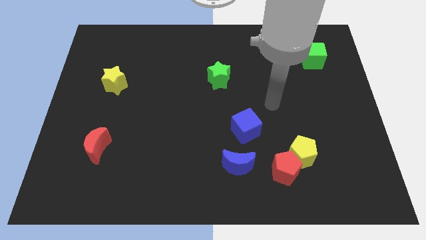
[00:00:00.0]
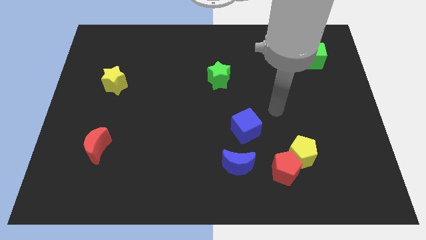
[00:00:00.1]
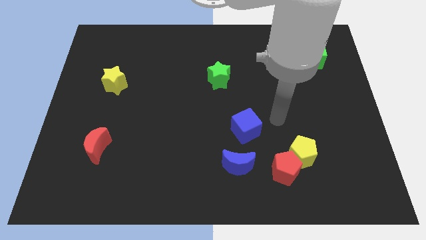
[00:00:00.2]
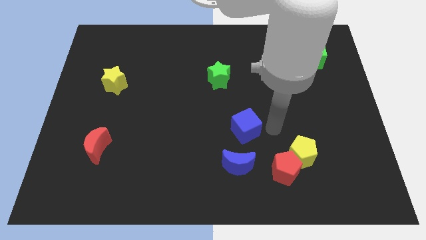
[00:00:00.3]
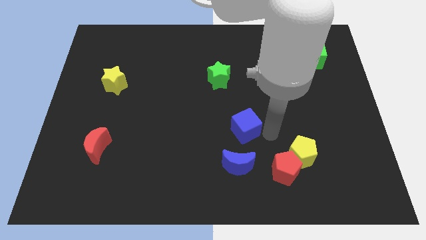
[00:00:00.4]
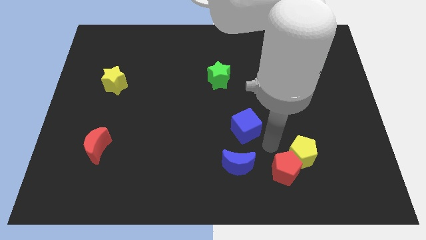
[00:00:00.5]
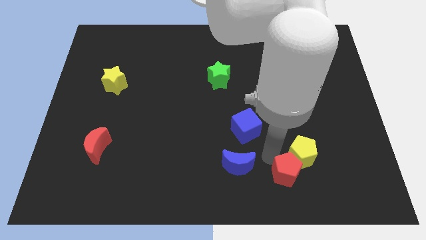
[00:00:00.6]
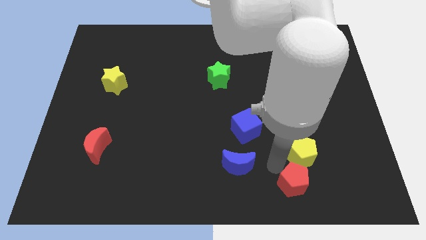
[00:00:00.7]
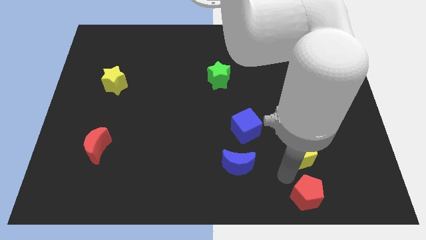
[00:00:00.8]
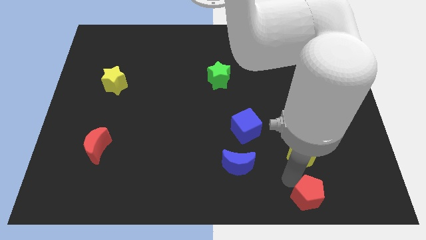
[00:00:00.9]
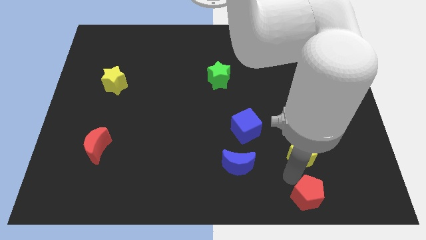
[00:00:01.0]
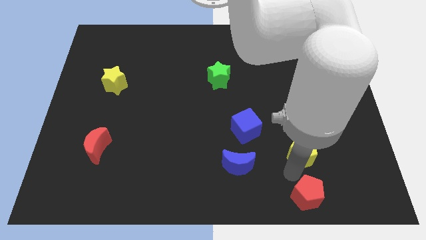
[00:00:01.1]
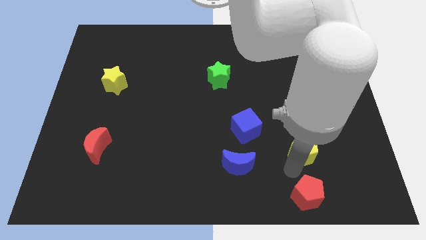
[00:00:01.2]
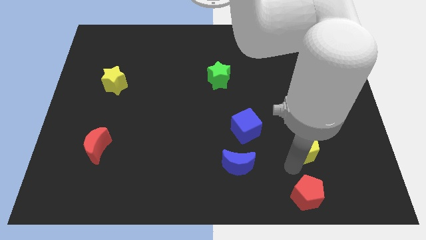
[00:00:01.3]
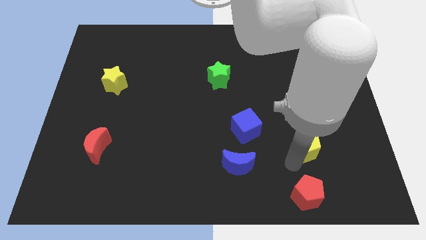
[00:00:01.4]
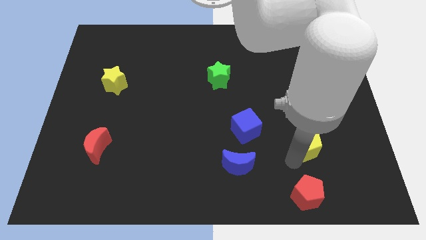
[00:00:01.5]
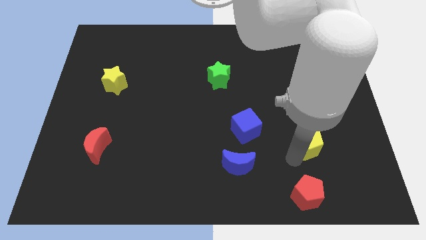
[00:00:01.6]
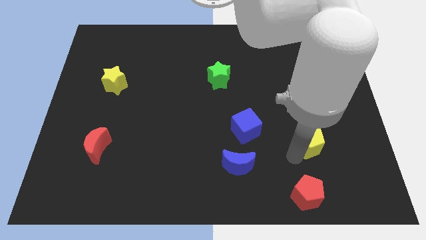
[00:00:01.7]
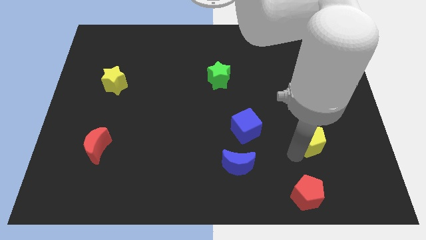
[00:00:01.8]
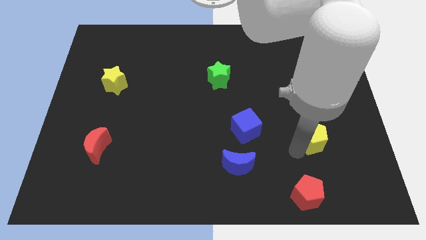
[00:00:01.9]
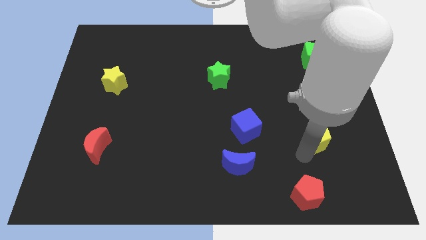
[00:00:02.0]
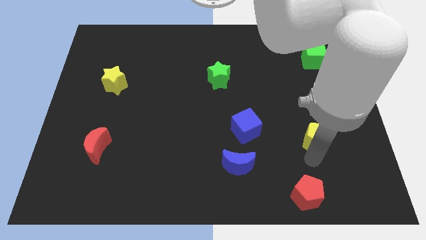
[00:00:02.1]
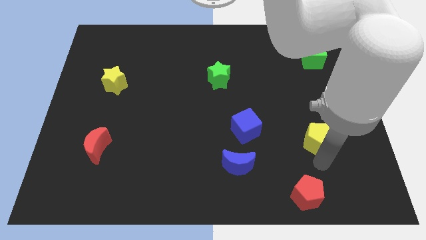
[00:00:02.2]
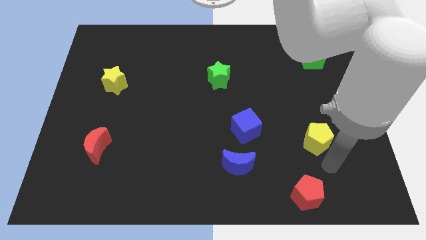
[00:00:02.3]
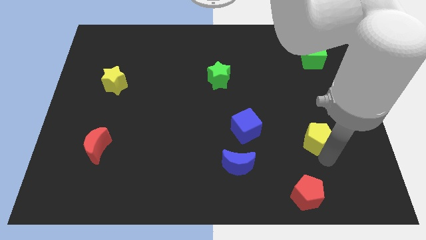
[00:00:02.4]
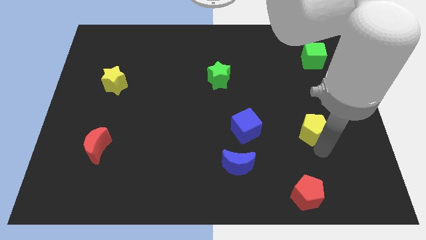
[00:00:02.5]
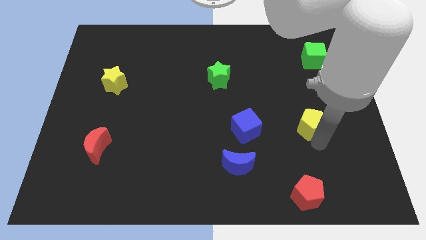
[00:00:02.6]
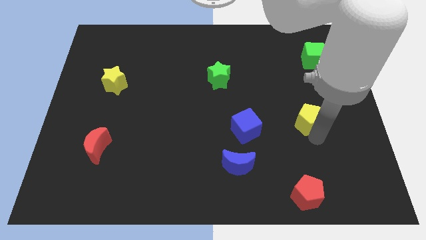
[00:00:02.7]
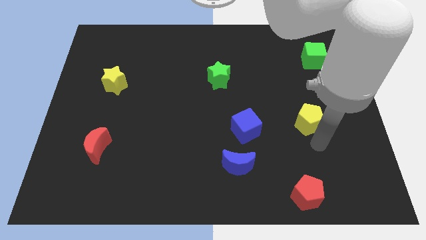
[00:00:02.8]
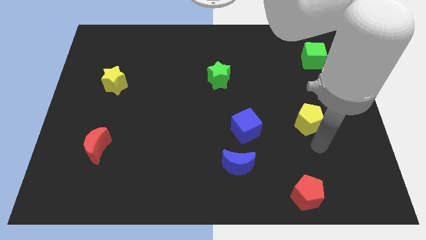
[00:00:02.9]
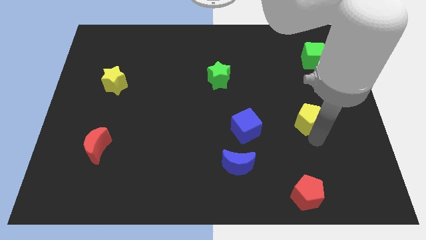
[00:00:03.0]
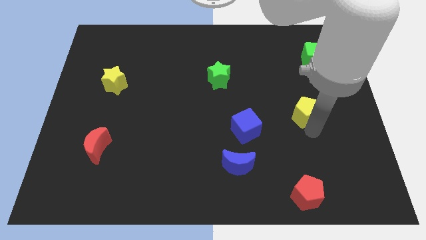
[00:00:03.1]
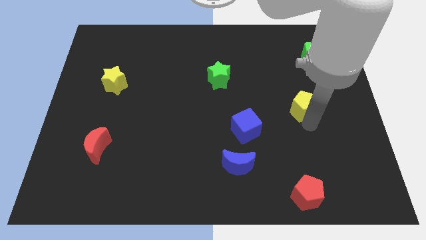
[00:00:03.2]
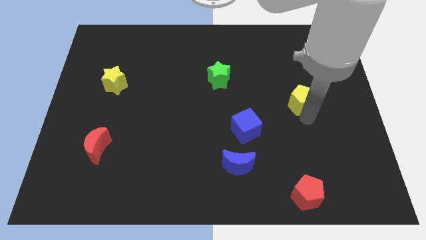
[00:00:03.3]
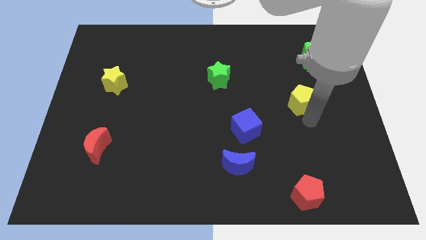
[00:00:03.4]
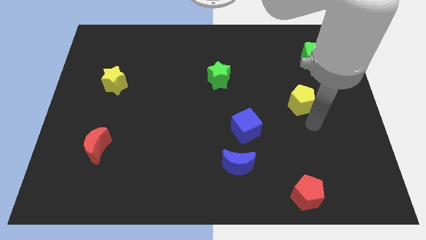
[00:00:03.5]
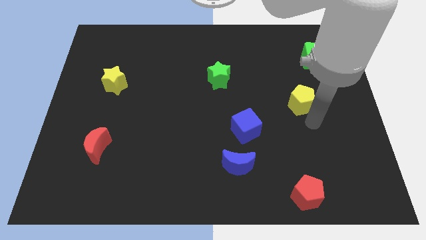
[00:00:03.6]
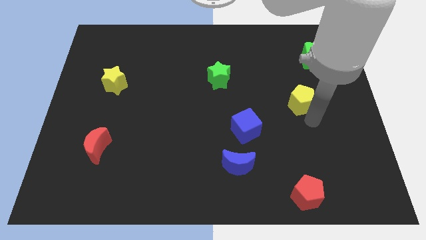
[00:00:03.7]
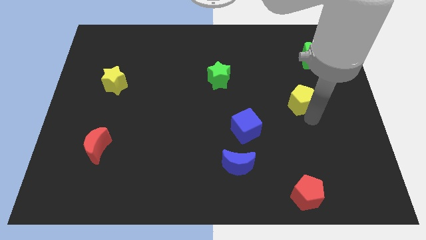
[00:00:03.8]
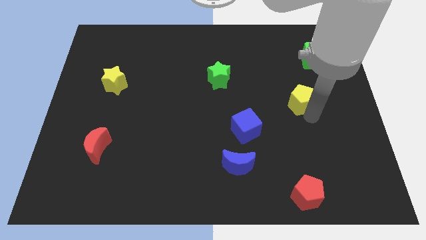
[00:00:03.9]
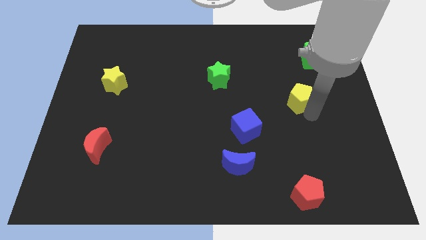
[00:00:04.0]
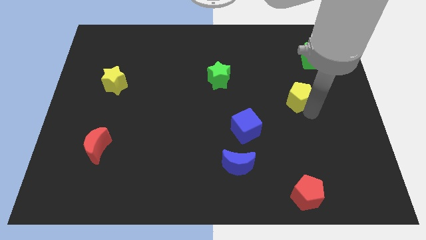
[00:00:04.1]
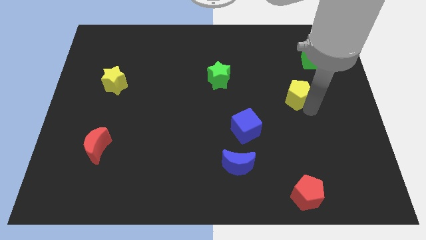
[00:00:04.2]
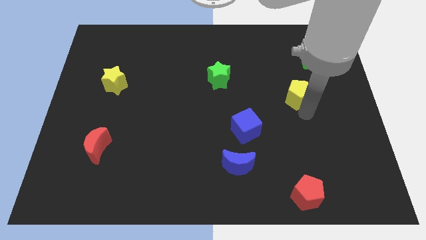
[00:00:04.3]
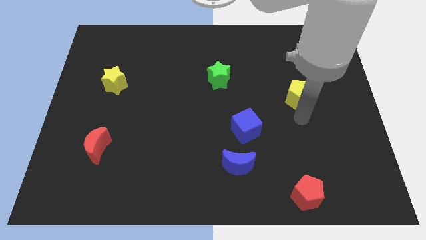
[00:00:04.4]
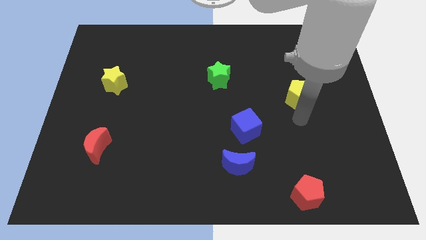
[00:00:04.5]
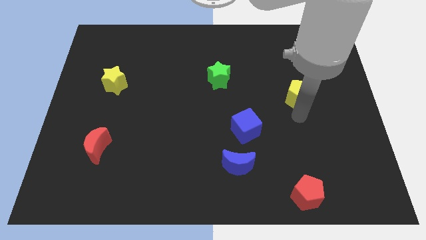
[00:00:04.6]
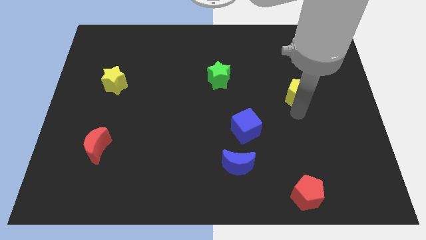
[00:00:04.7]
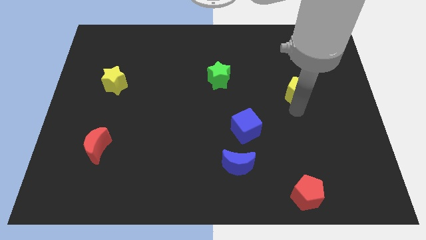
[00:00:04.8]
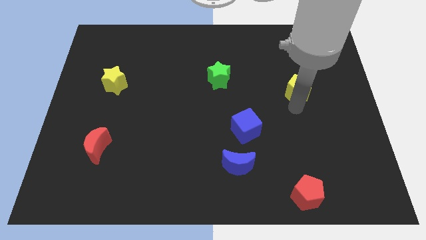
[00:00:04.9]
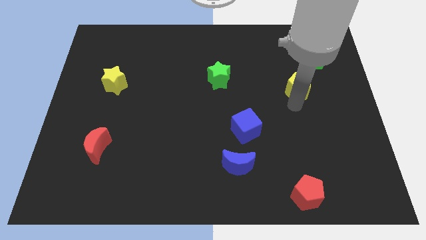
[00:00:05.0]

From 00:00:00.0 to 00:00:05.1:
put the yellow pentagon to the bottom left of the green cube

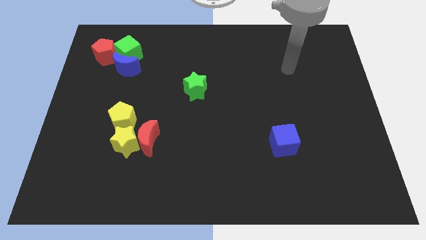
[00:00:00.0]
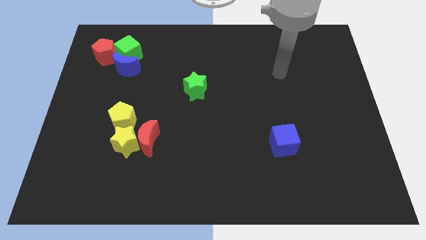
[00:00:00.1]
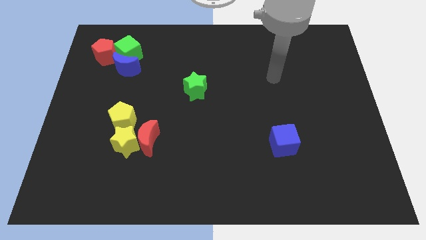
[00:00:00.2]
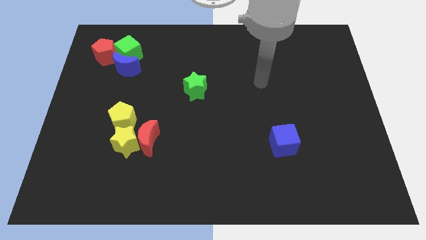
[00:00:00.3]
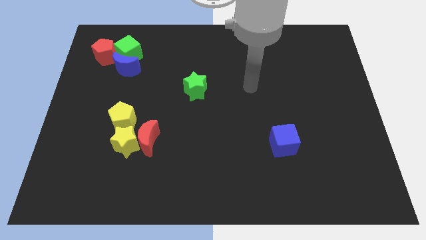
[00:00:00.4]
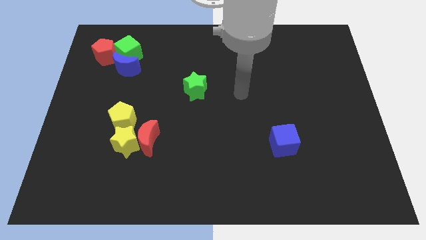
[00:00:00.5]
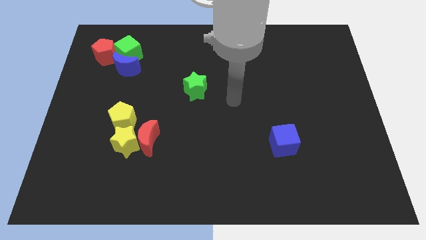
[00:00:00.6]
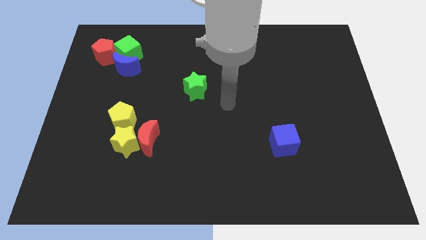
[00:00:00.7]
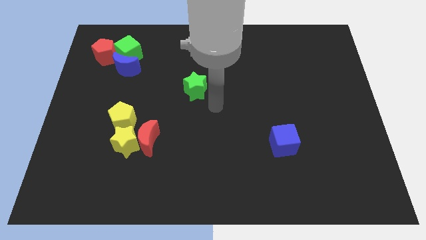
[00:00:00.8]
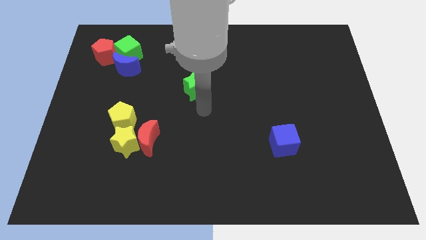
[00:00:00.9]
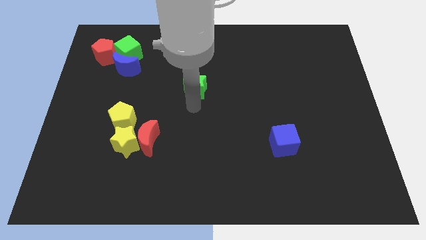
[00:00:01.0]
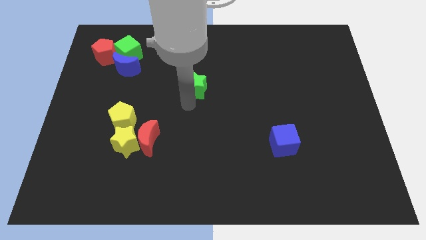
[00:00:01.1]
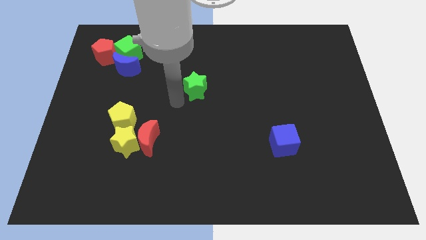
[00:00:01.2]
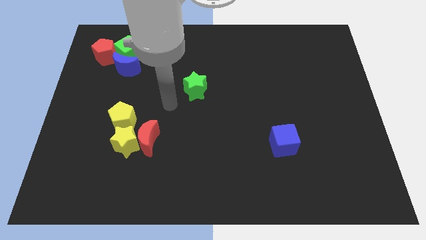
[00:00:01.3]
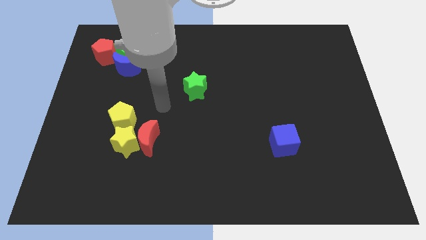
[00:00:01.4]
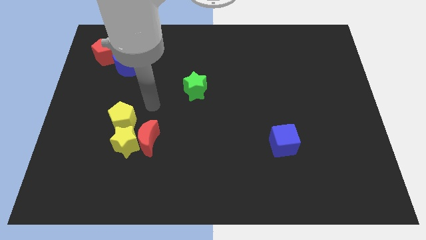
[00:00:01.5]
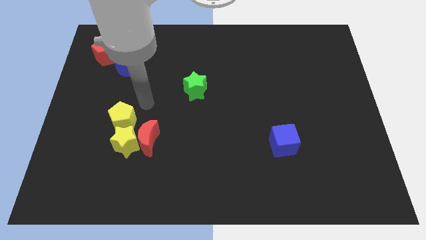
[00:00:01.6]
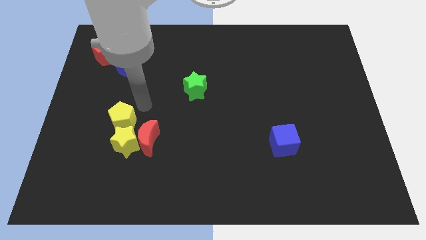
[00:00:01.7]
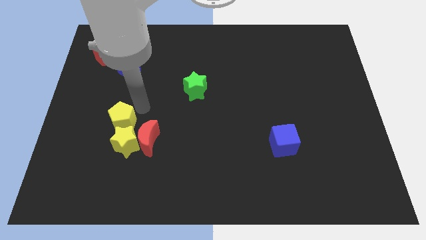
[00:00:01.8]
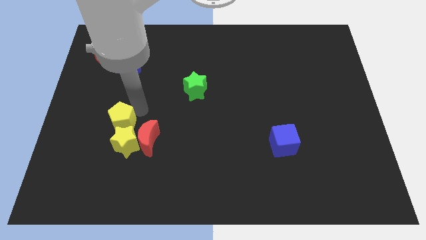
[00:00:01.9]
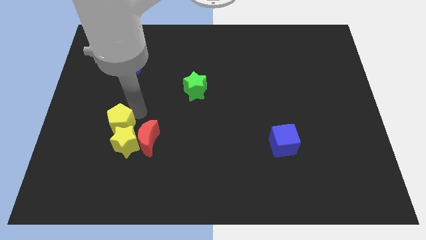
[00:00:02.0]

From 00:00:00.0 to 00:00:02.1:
put the yellow pentagon just left of the red moon
